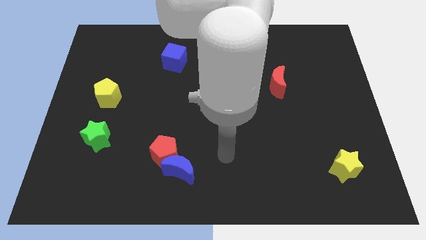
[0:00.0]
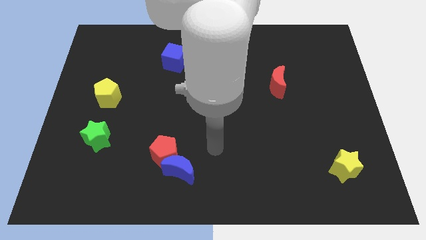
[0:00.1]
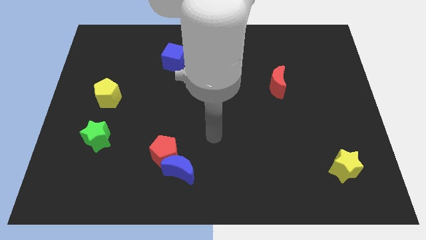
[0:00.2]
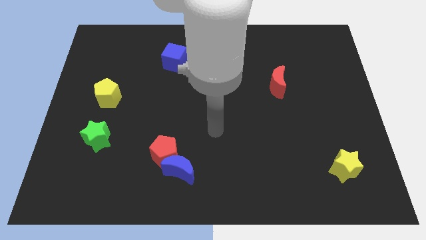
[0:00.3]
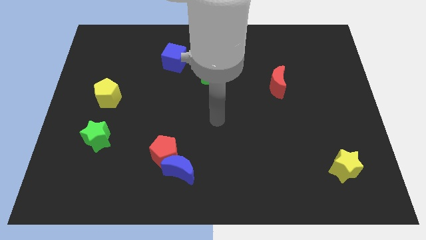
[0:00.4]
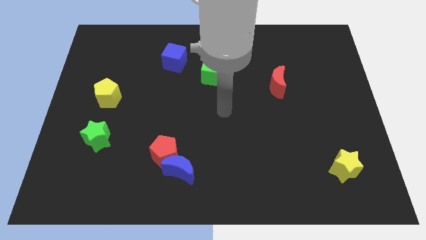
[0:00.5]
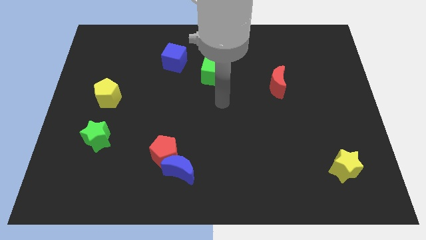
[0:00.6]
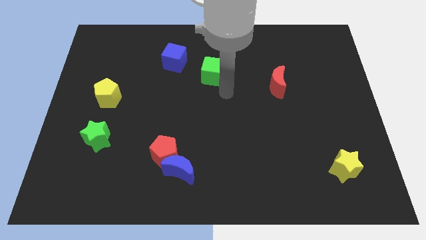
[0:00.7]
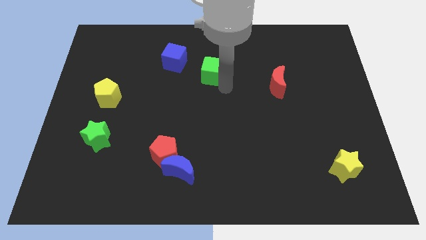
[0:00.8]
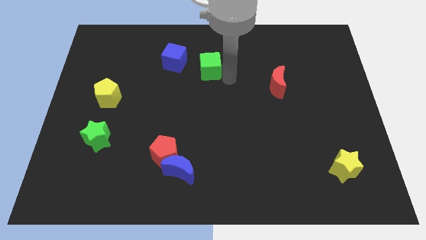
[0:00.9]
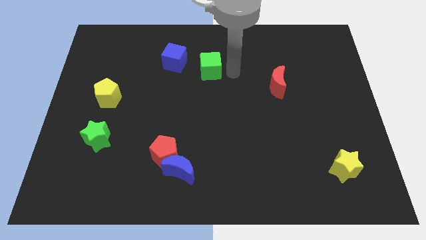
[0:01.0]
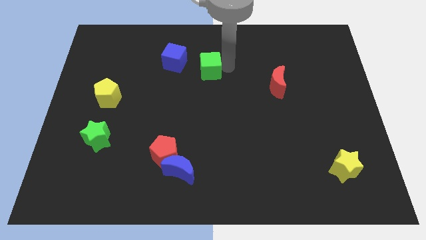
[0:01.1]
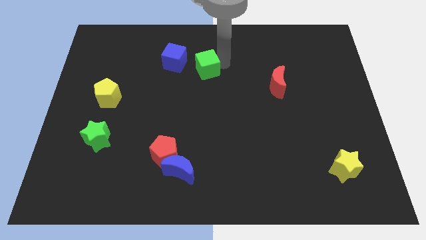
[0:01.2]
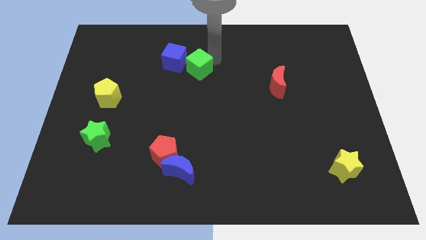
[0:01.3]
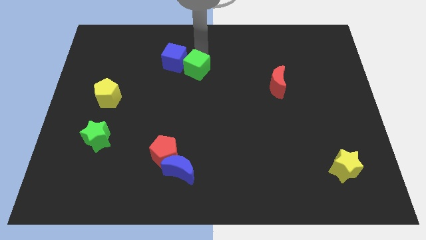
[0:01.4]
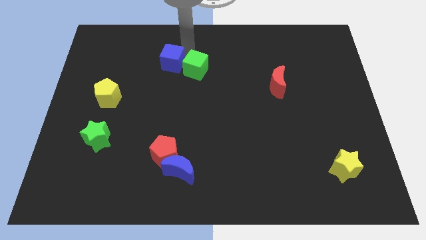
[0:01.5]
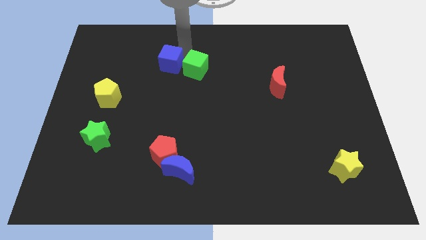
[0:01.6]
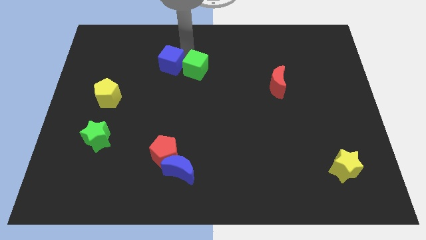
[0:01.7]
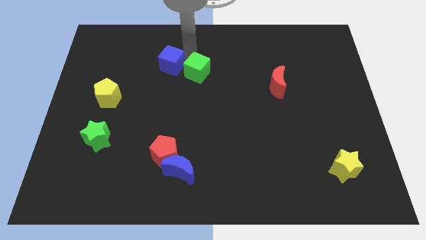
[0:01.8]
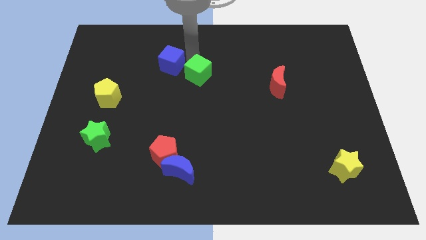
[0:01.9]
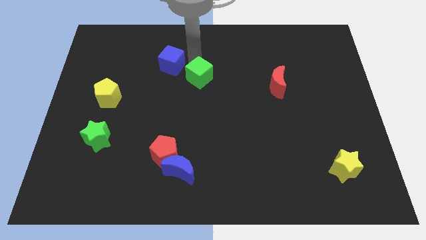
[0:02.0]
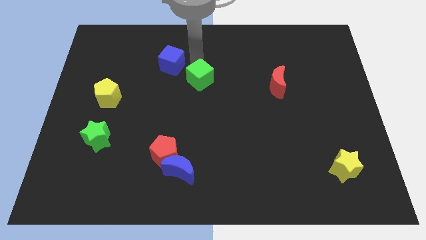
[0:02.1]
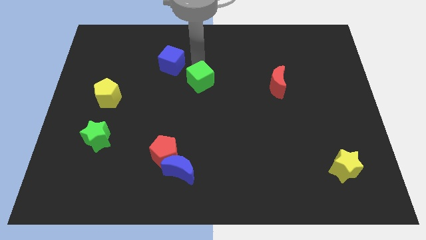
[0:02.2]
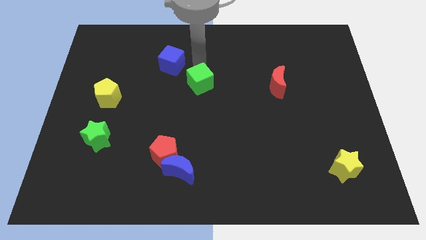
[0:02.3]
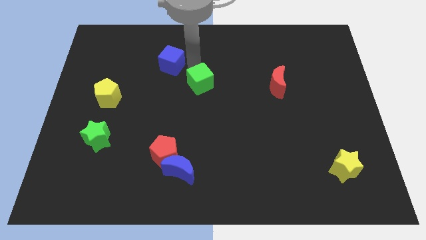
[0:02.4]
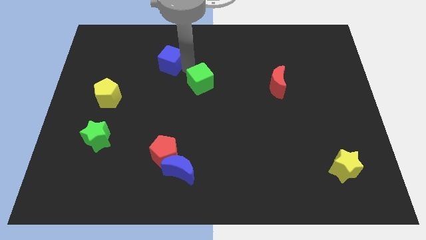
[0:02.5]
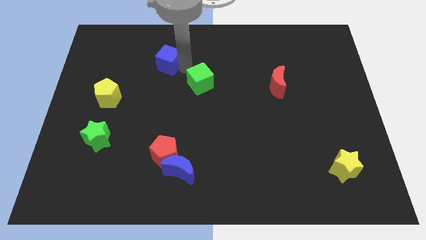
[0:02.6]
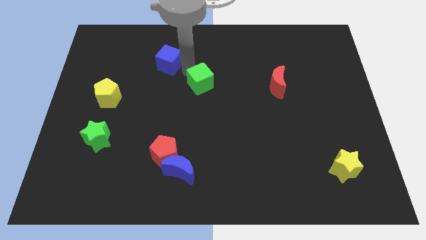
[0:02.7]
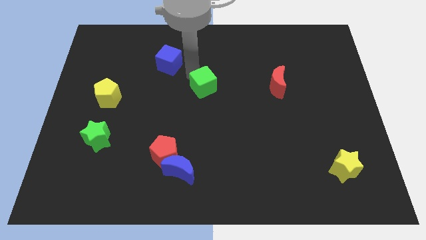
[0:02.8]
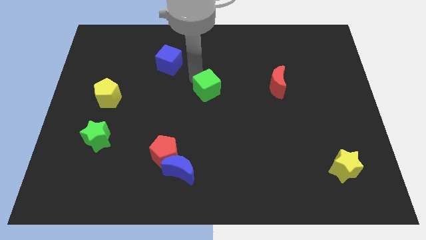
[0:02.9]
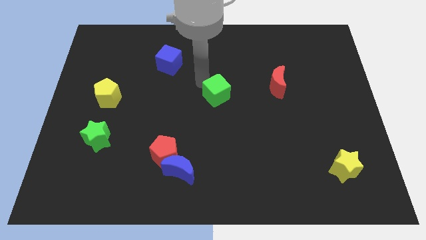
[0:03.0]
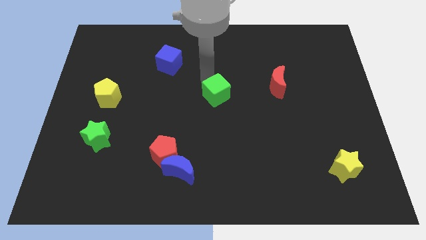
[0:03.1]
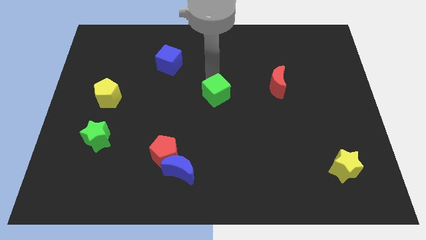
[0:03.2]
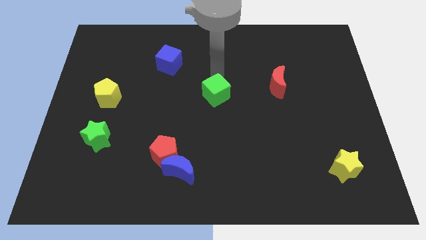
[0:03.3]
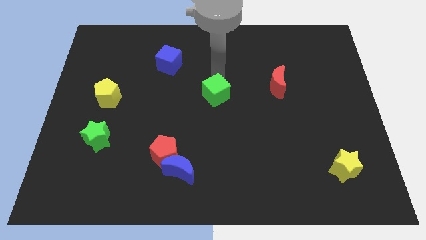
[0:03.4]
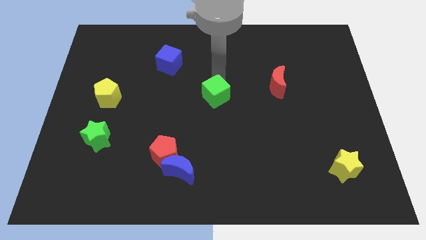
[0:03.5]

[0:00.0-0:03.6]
slightly push the green cube down

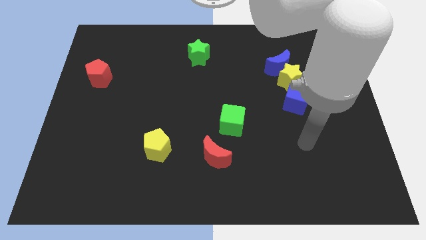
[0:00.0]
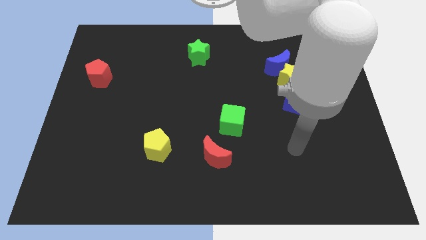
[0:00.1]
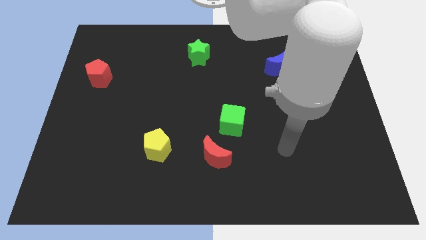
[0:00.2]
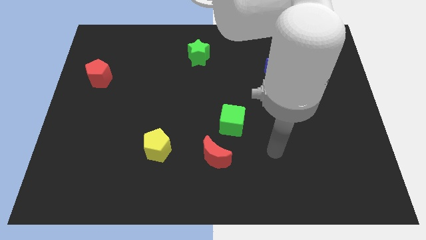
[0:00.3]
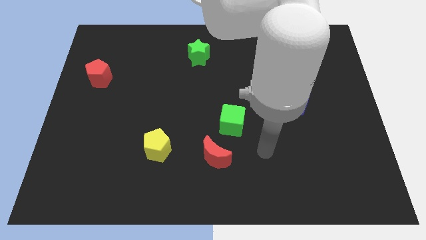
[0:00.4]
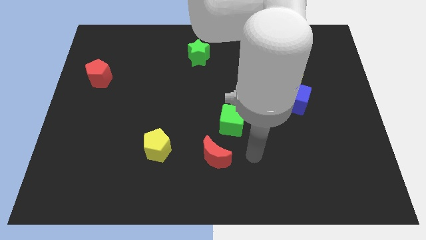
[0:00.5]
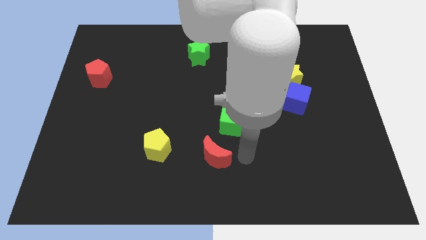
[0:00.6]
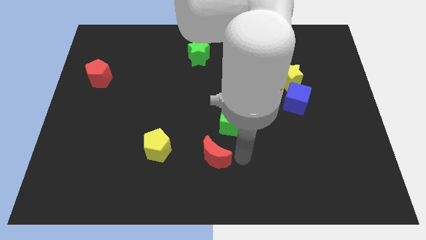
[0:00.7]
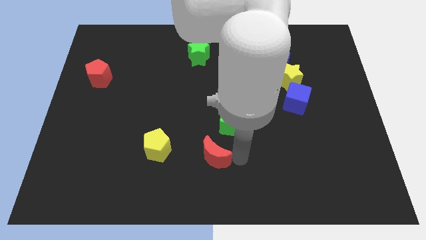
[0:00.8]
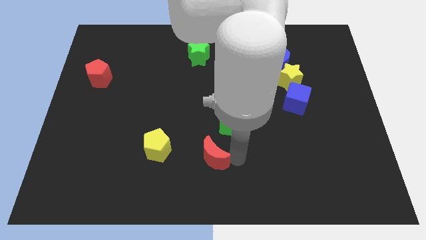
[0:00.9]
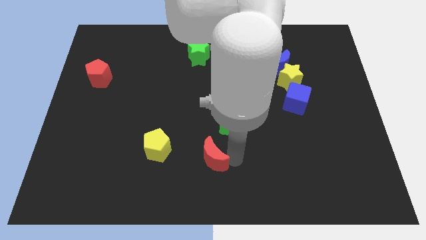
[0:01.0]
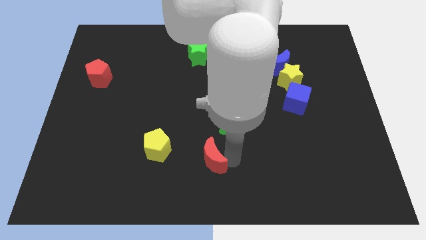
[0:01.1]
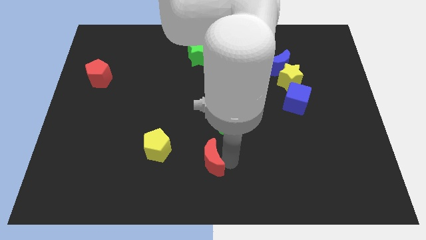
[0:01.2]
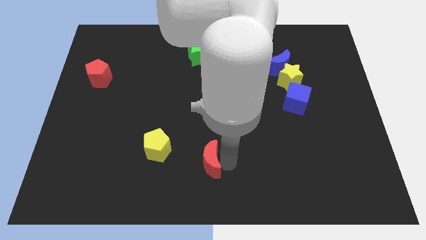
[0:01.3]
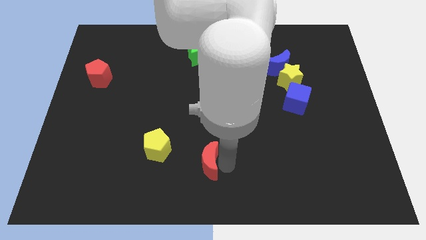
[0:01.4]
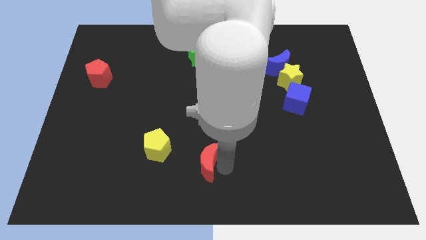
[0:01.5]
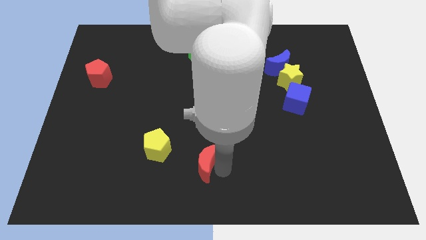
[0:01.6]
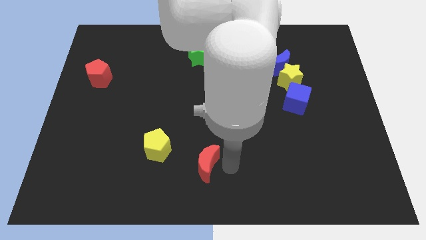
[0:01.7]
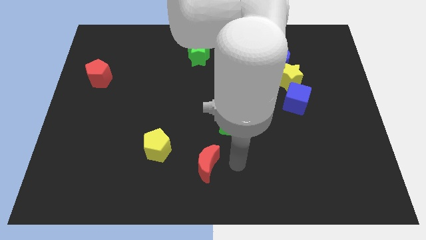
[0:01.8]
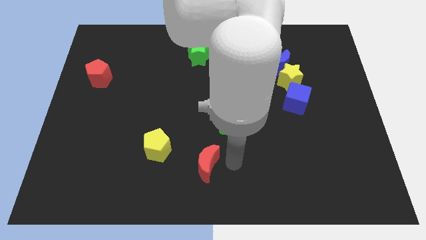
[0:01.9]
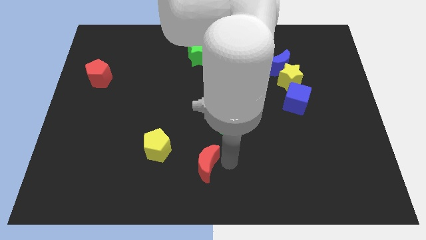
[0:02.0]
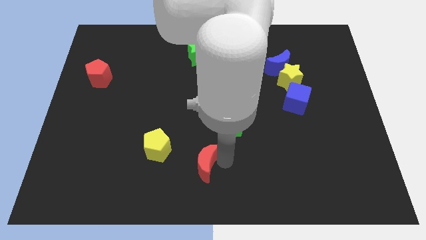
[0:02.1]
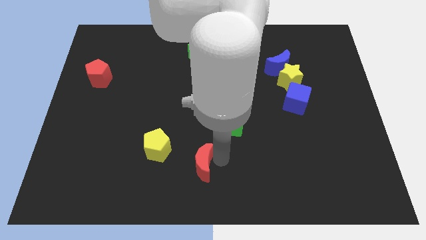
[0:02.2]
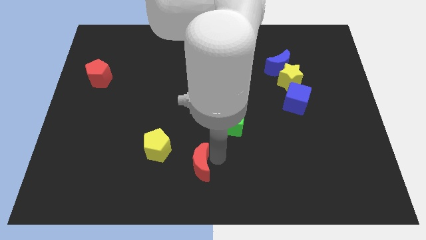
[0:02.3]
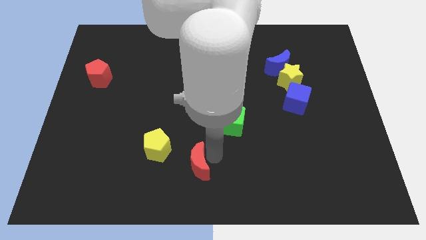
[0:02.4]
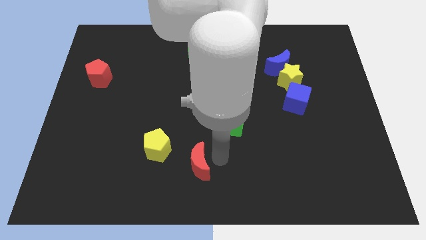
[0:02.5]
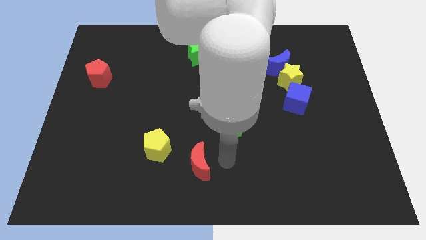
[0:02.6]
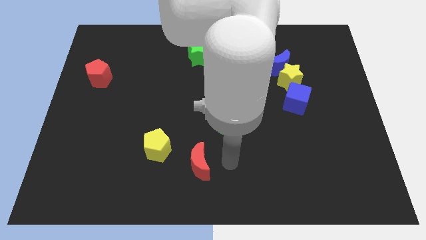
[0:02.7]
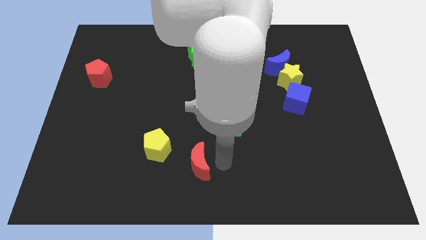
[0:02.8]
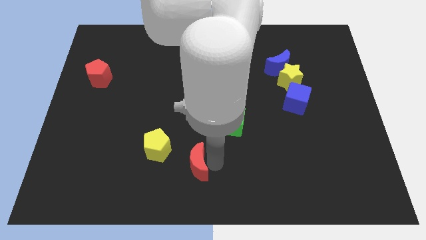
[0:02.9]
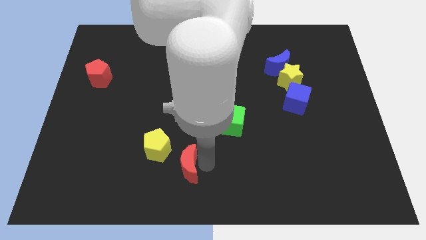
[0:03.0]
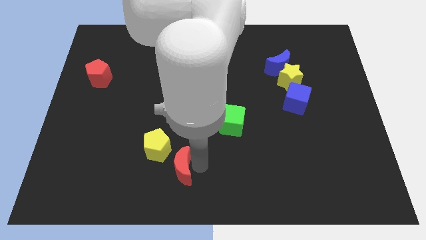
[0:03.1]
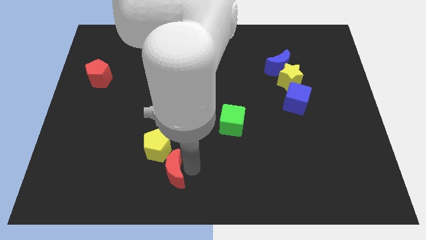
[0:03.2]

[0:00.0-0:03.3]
push the red moon left somewhat

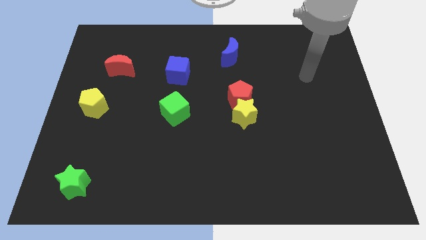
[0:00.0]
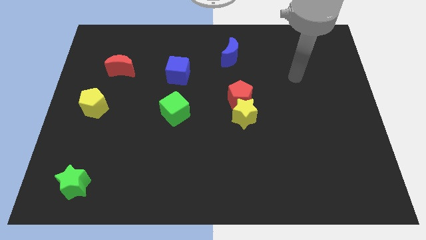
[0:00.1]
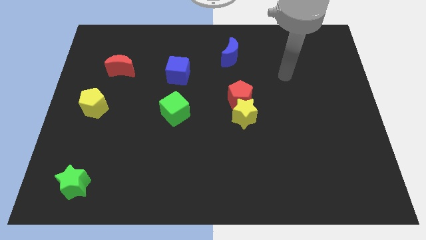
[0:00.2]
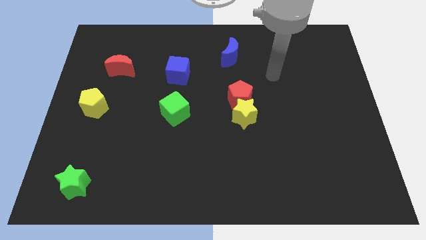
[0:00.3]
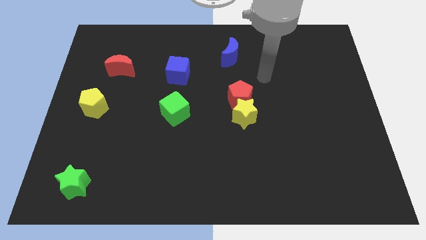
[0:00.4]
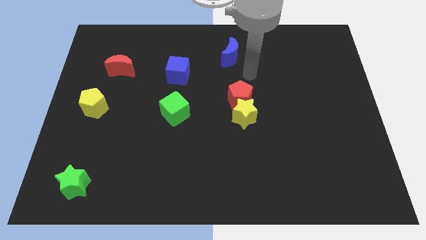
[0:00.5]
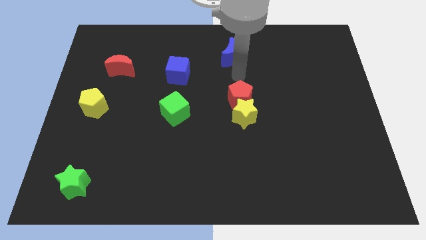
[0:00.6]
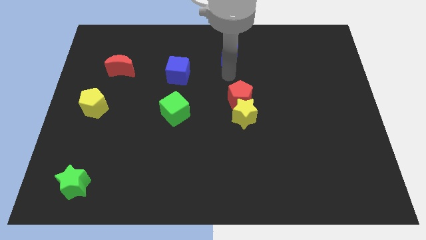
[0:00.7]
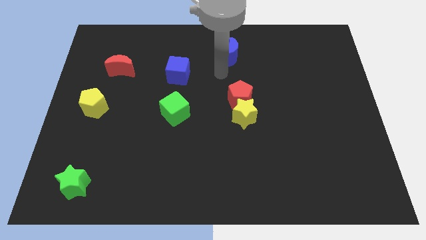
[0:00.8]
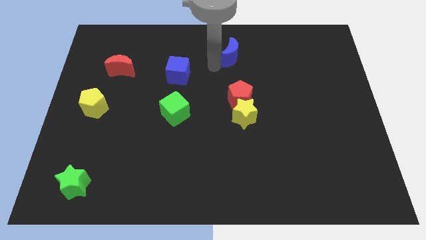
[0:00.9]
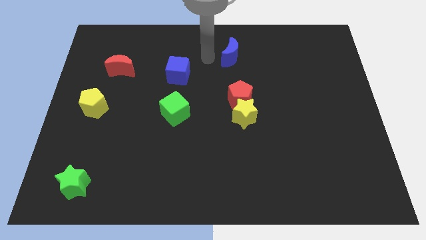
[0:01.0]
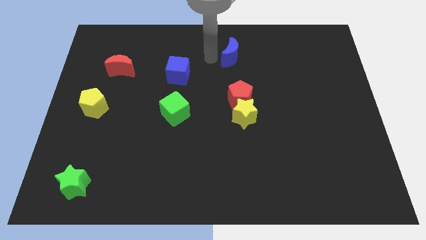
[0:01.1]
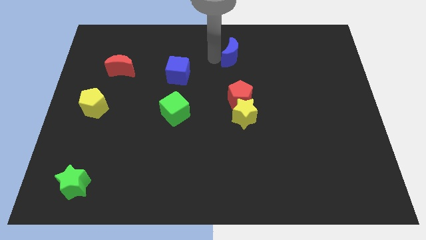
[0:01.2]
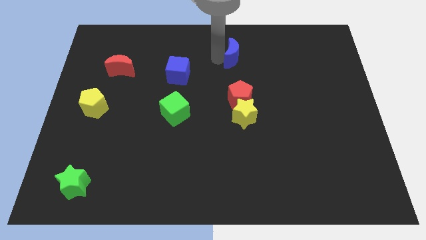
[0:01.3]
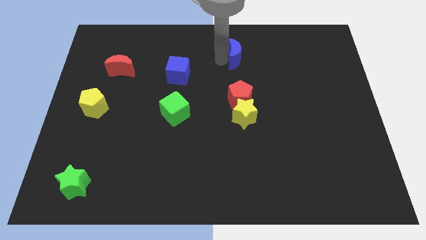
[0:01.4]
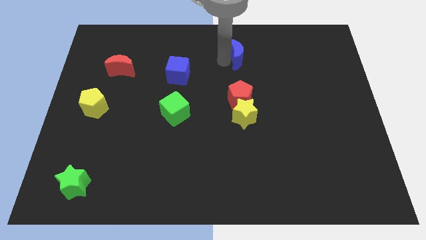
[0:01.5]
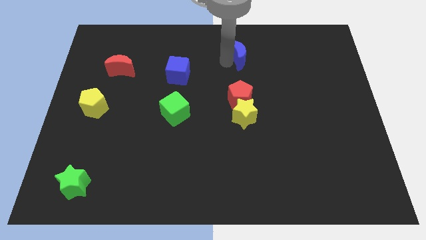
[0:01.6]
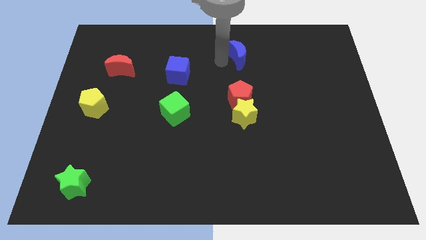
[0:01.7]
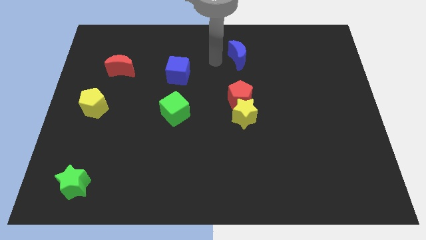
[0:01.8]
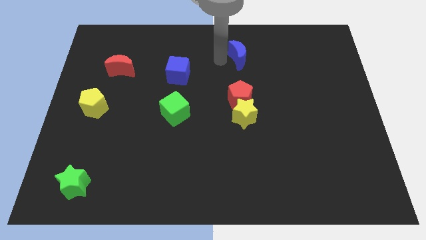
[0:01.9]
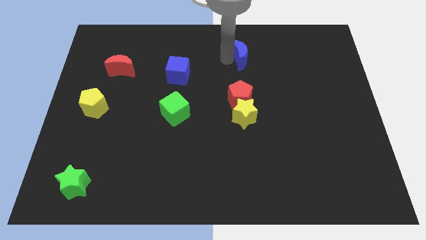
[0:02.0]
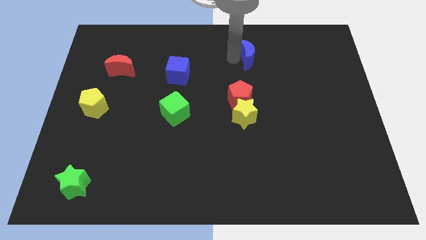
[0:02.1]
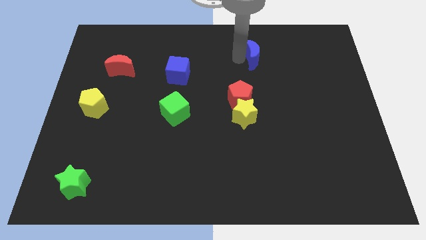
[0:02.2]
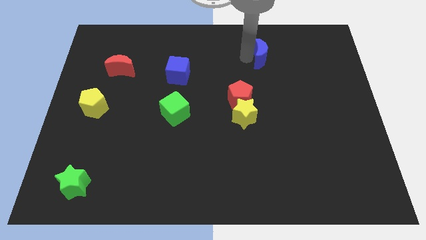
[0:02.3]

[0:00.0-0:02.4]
move the blue moon somewhat right
